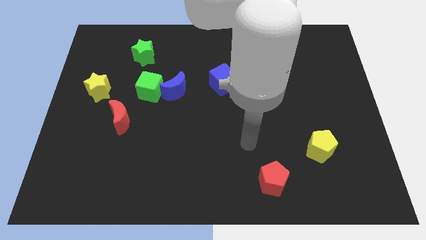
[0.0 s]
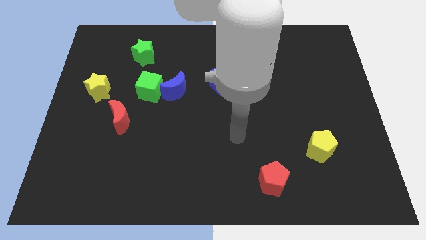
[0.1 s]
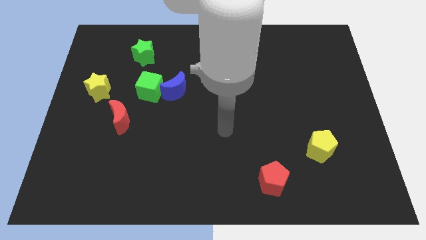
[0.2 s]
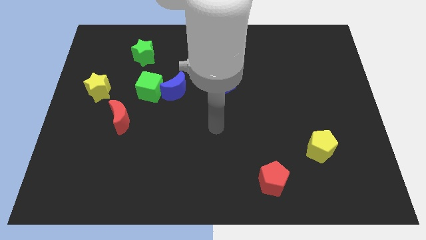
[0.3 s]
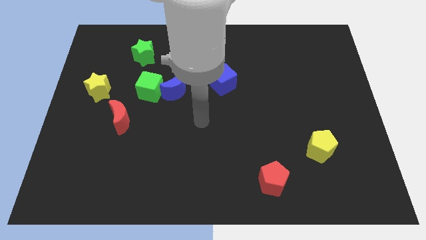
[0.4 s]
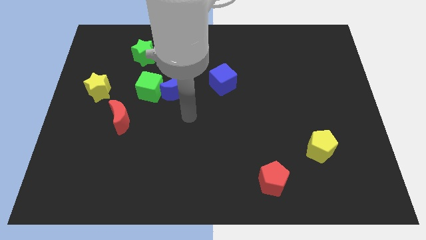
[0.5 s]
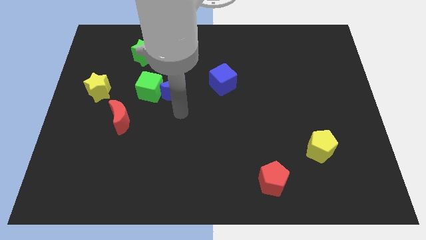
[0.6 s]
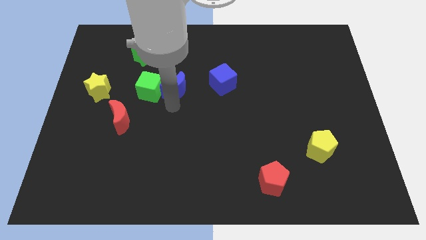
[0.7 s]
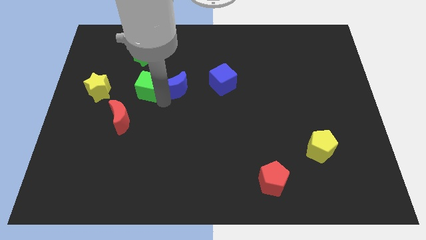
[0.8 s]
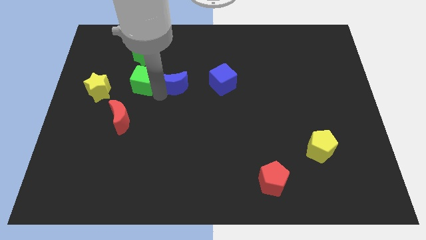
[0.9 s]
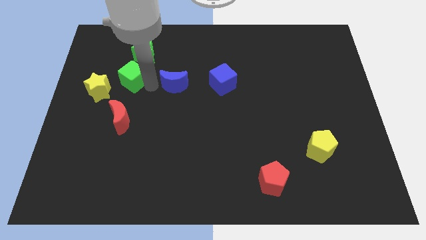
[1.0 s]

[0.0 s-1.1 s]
move the blue moon away from the green cube

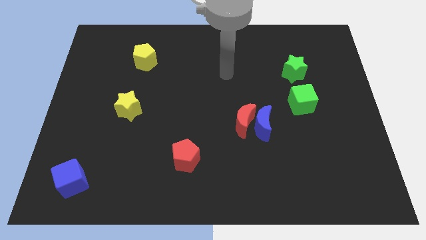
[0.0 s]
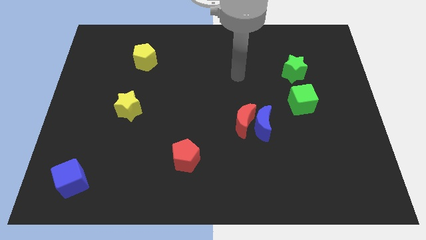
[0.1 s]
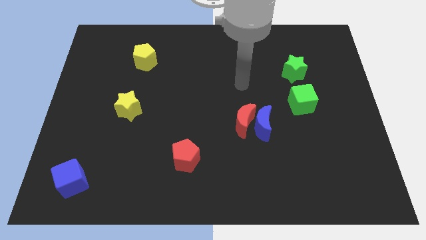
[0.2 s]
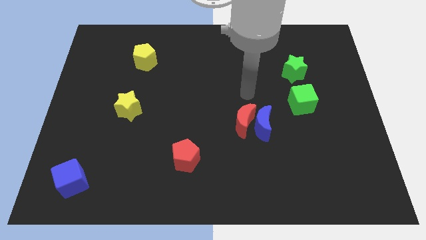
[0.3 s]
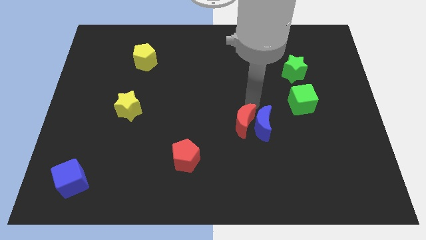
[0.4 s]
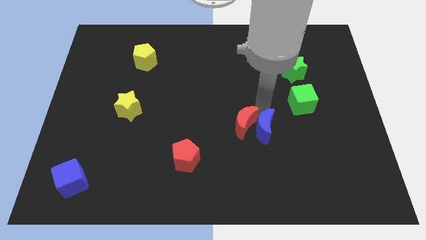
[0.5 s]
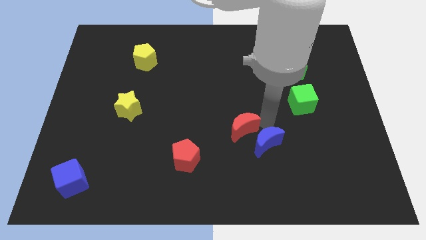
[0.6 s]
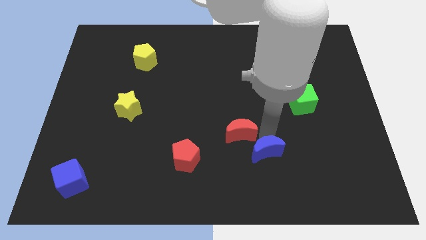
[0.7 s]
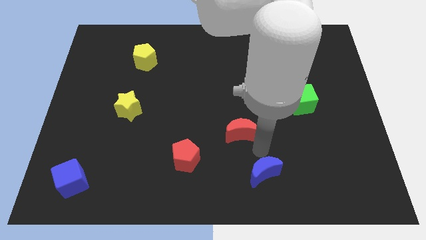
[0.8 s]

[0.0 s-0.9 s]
move the red moon away from the blue moon

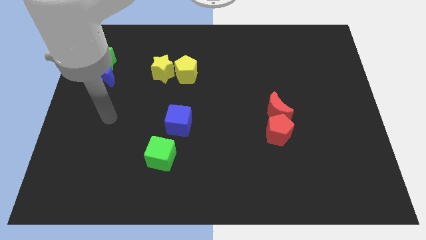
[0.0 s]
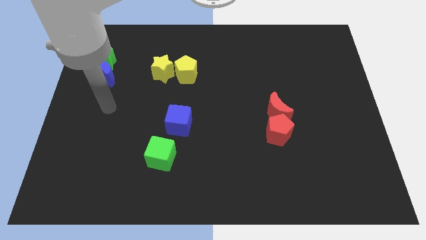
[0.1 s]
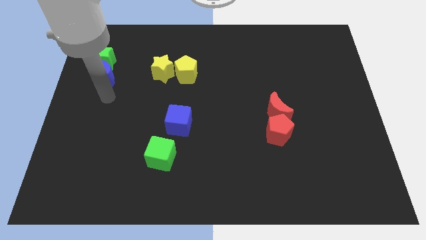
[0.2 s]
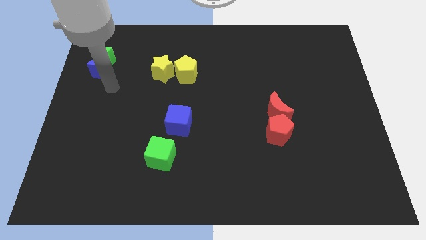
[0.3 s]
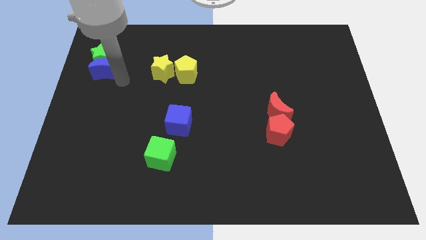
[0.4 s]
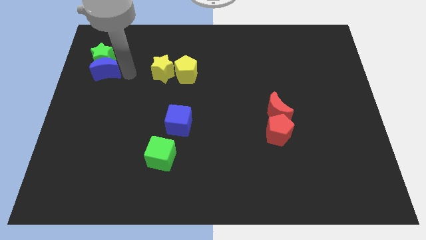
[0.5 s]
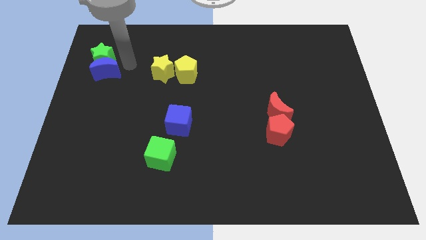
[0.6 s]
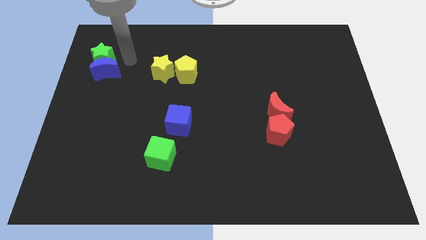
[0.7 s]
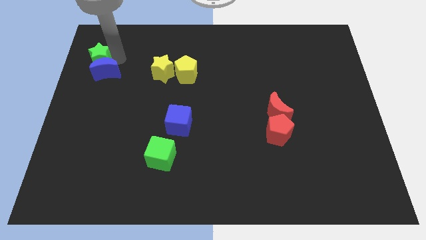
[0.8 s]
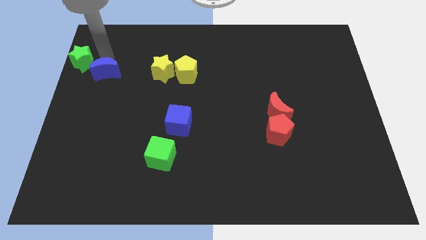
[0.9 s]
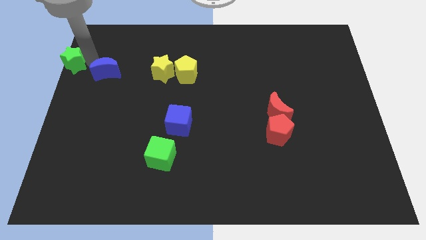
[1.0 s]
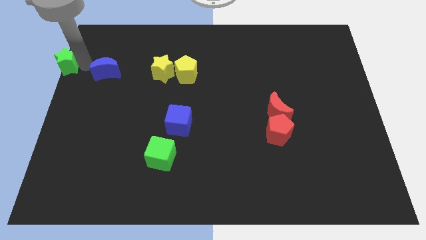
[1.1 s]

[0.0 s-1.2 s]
separate the blue moon from the green star

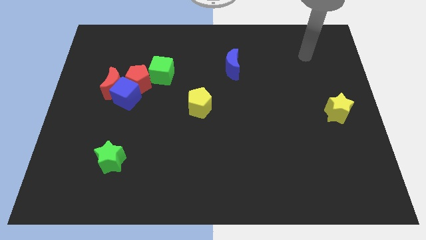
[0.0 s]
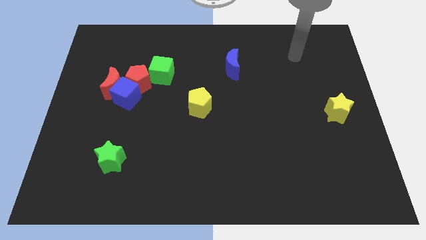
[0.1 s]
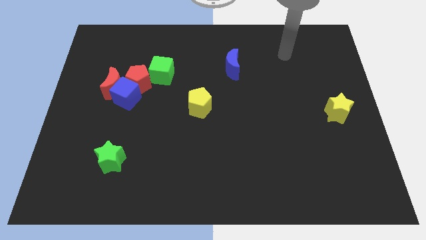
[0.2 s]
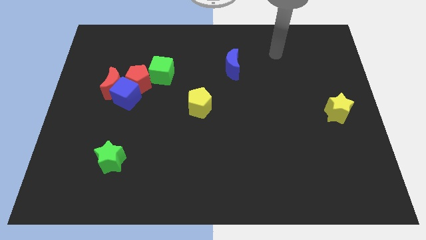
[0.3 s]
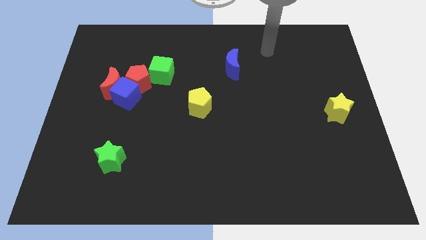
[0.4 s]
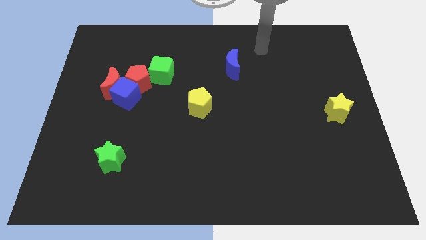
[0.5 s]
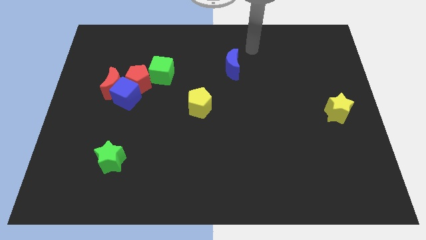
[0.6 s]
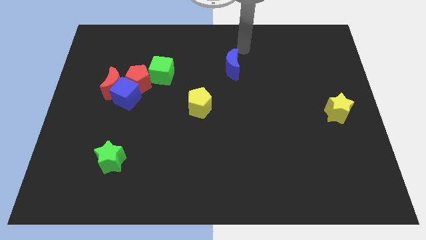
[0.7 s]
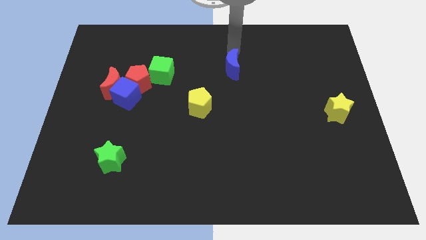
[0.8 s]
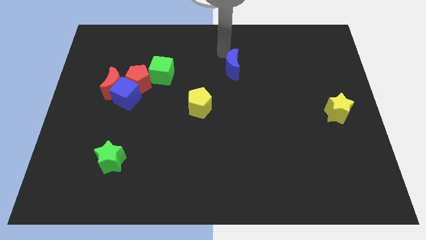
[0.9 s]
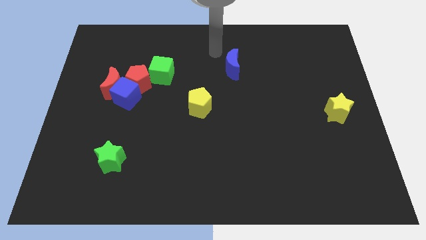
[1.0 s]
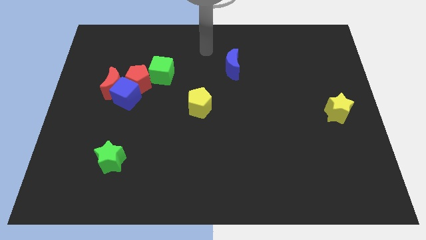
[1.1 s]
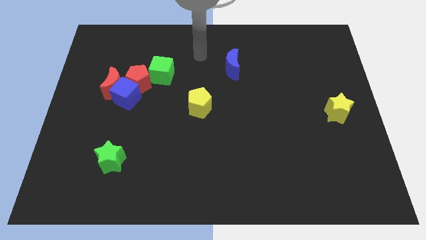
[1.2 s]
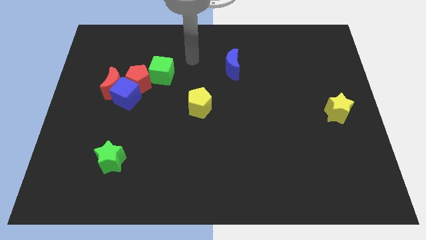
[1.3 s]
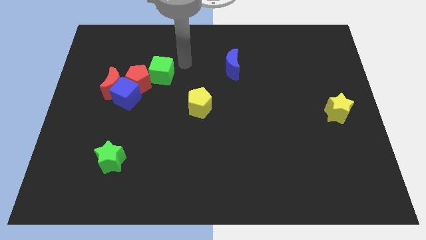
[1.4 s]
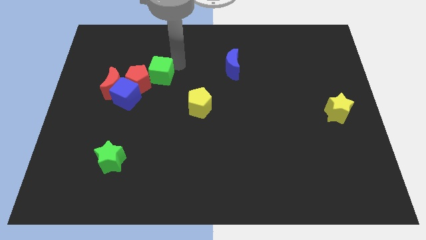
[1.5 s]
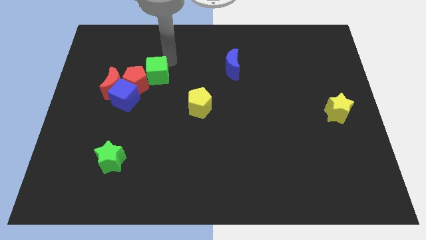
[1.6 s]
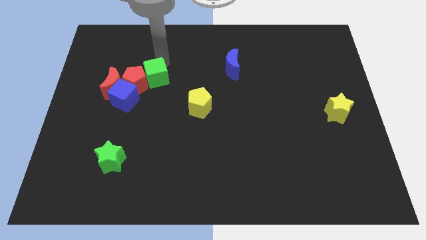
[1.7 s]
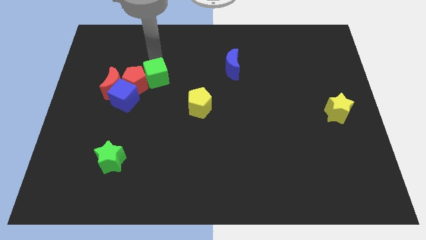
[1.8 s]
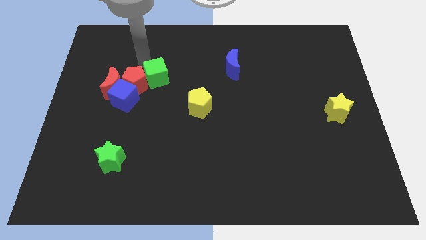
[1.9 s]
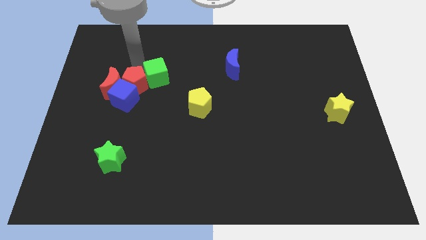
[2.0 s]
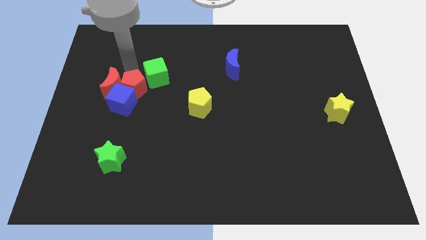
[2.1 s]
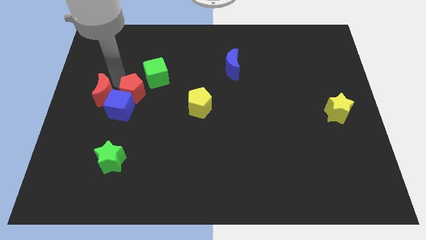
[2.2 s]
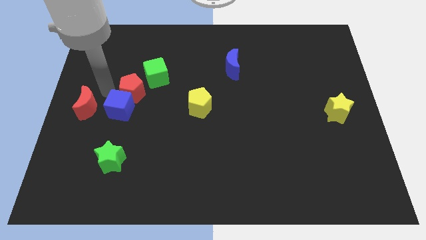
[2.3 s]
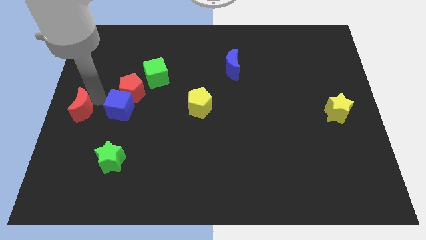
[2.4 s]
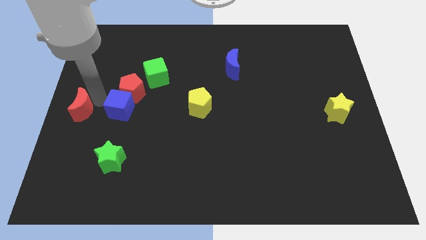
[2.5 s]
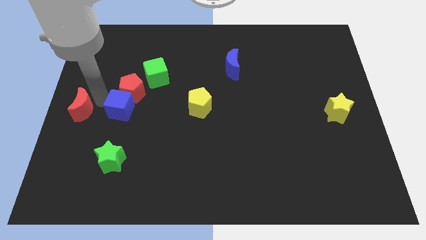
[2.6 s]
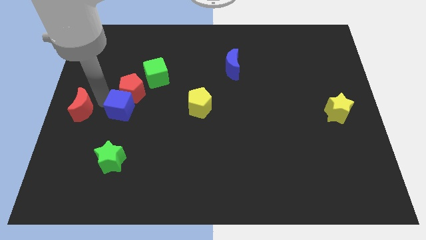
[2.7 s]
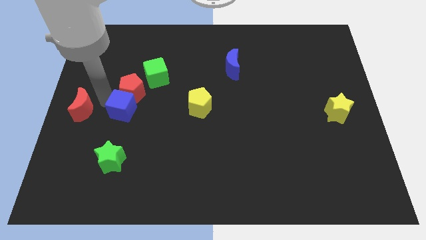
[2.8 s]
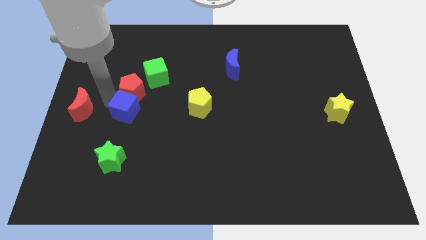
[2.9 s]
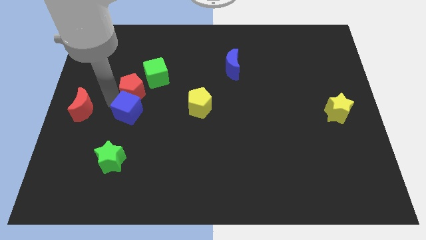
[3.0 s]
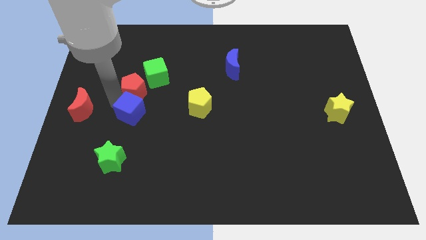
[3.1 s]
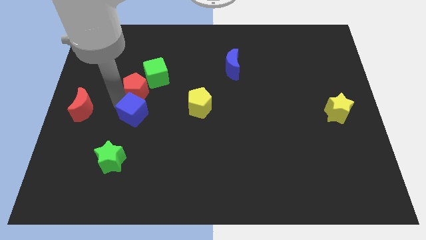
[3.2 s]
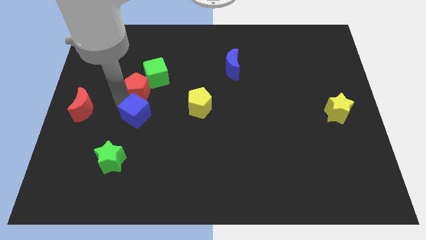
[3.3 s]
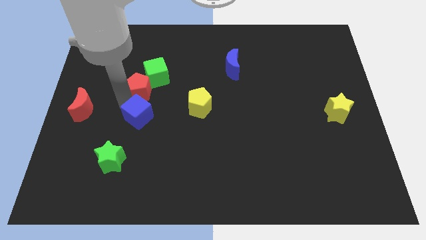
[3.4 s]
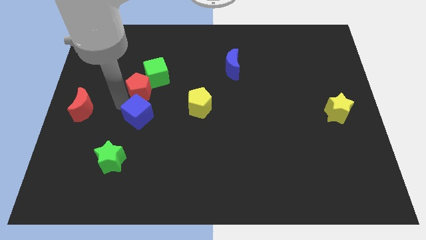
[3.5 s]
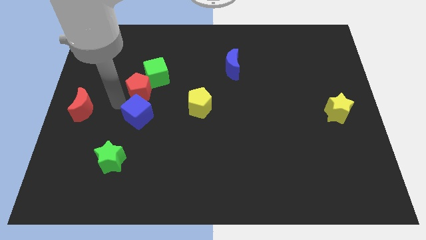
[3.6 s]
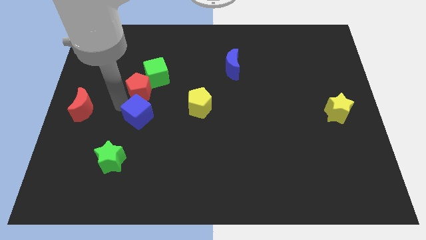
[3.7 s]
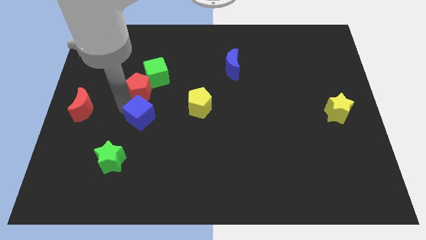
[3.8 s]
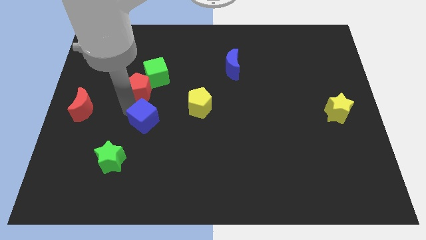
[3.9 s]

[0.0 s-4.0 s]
move the blue cube away from the red moon and red pentagon

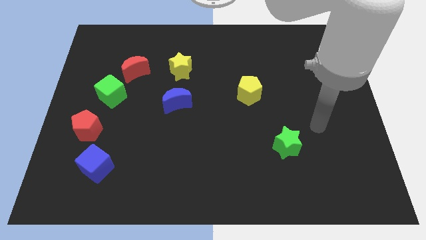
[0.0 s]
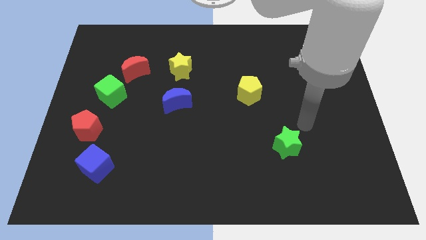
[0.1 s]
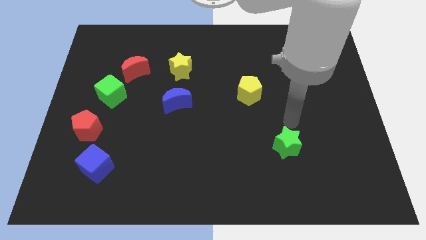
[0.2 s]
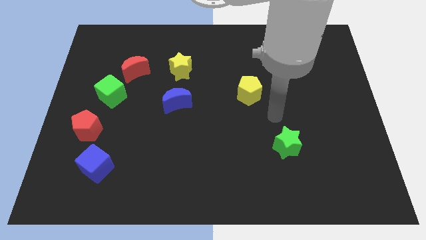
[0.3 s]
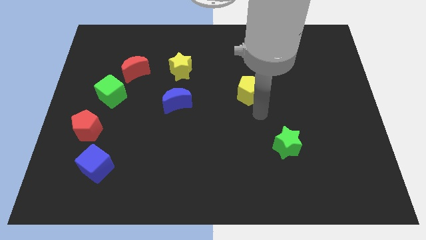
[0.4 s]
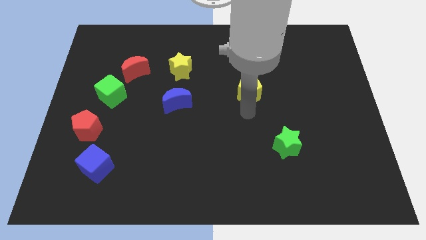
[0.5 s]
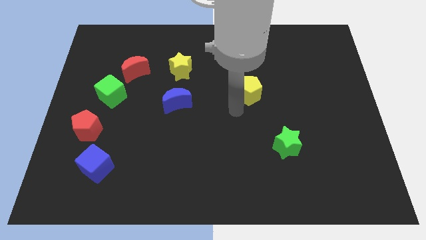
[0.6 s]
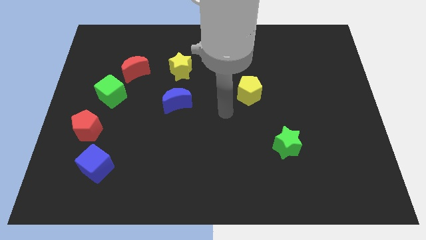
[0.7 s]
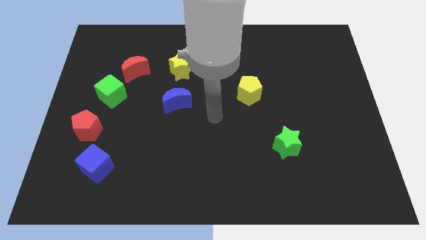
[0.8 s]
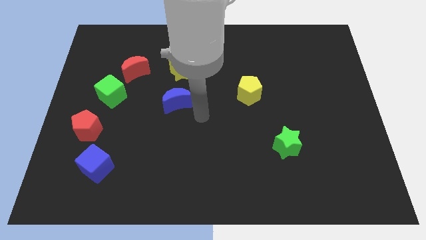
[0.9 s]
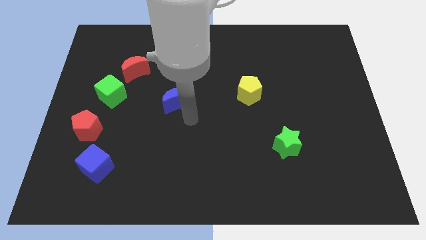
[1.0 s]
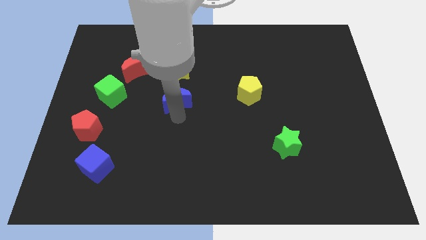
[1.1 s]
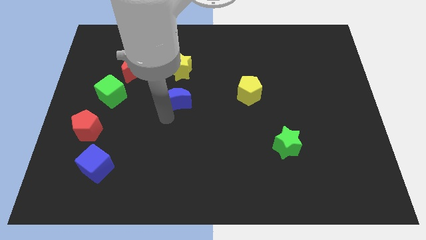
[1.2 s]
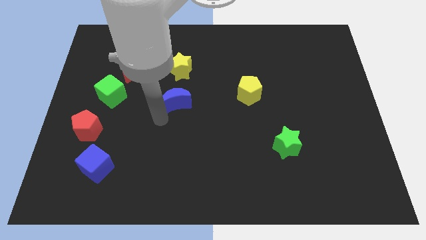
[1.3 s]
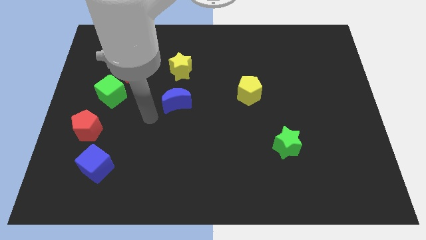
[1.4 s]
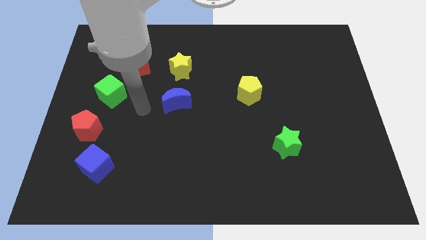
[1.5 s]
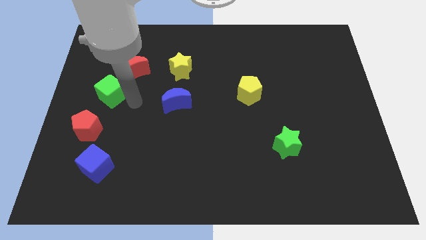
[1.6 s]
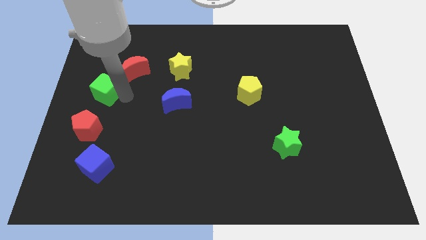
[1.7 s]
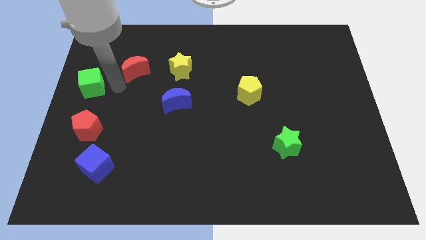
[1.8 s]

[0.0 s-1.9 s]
pull the red moon apart from the green cube

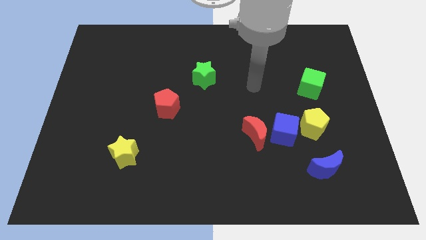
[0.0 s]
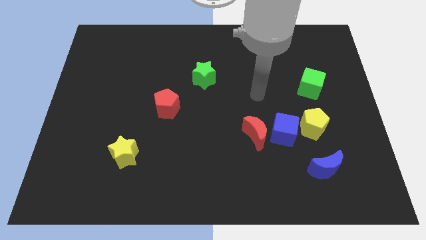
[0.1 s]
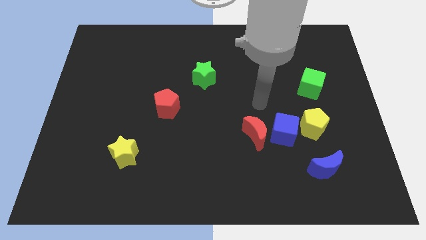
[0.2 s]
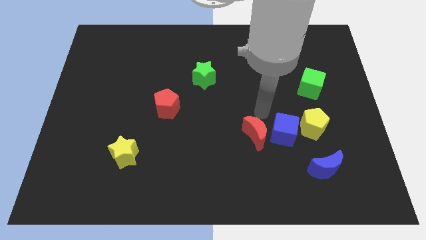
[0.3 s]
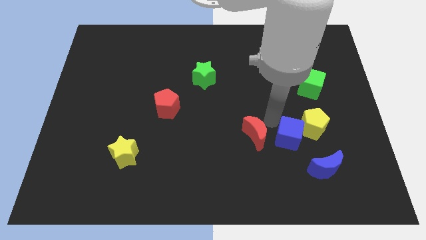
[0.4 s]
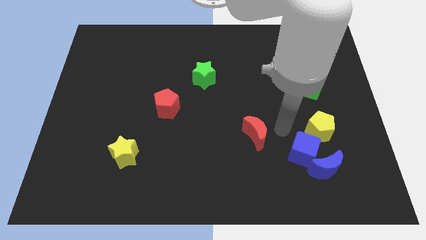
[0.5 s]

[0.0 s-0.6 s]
pull the red moon apart from the blue cube
